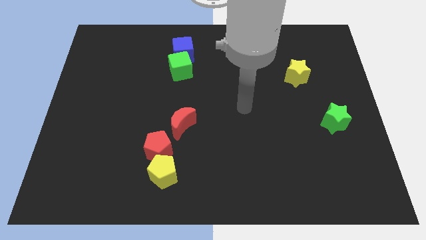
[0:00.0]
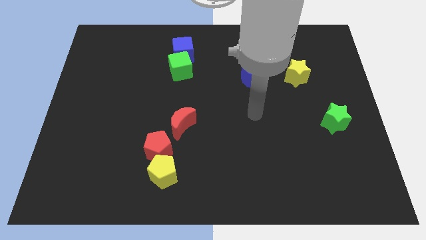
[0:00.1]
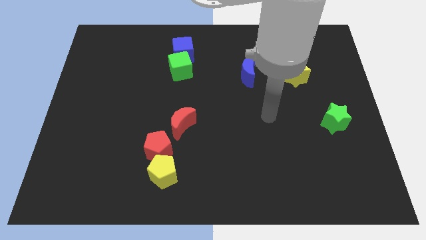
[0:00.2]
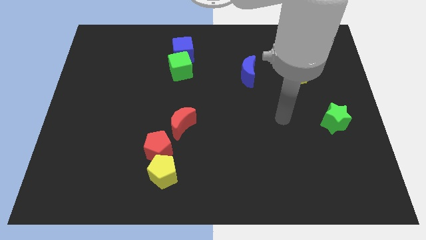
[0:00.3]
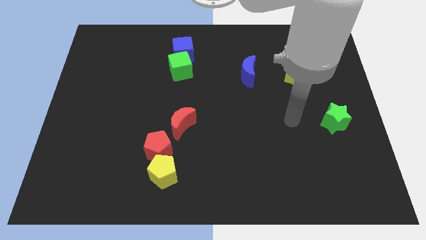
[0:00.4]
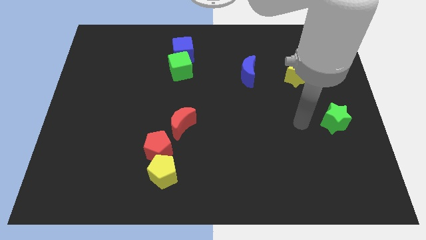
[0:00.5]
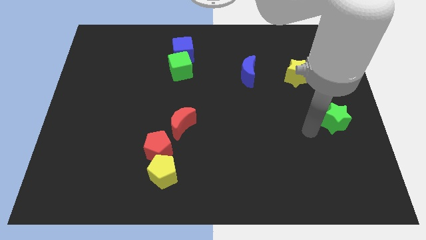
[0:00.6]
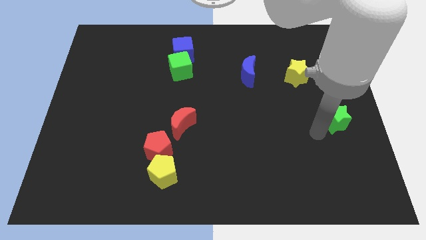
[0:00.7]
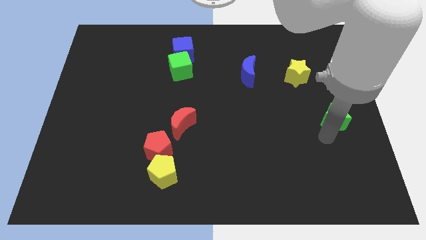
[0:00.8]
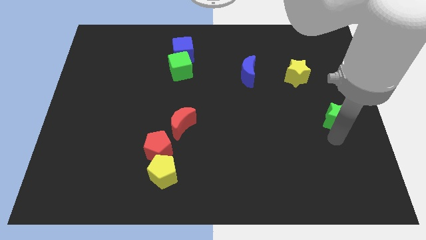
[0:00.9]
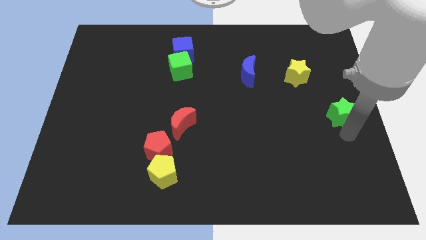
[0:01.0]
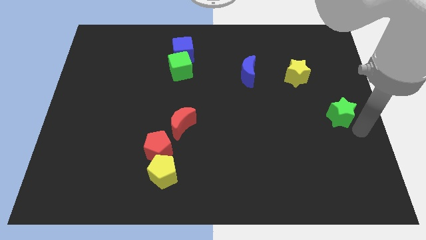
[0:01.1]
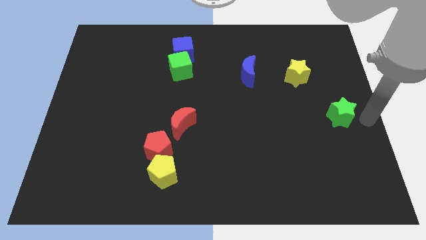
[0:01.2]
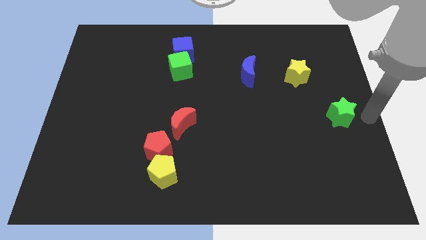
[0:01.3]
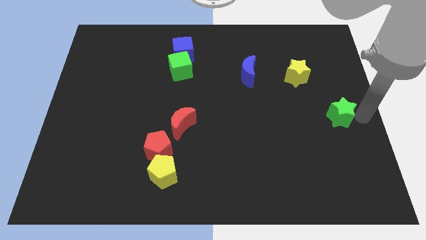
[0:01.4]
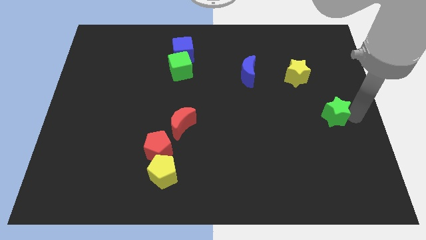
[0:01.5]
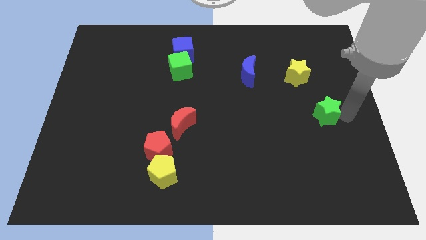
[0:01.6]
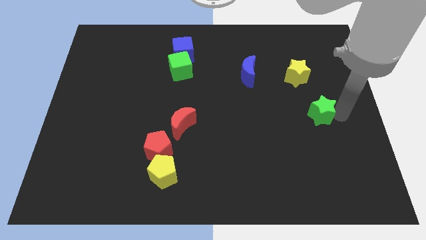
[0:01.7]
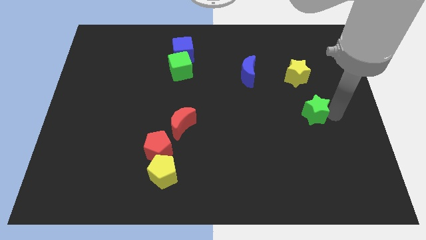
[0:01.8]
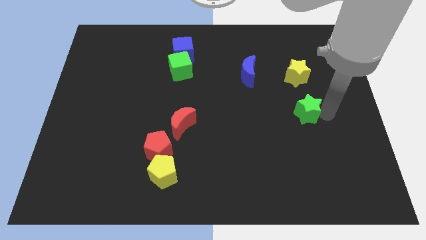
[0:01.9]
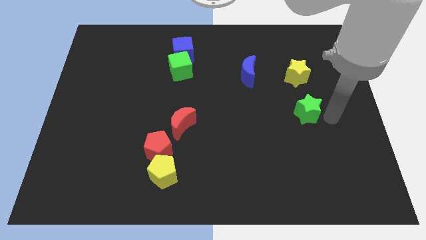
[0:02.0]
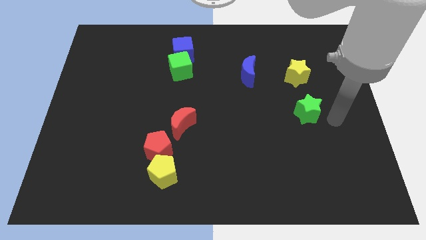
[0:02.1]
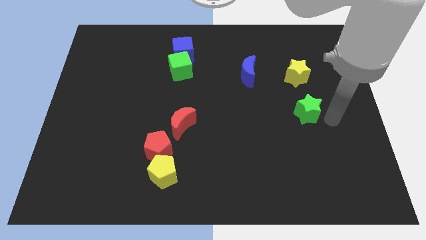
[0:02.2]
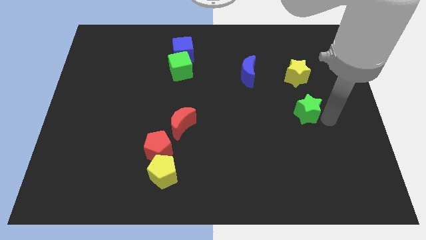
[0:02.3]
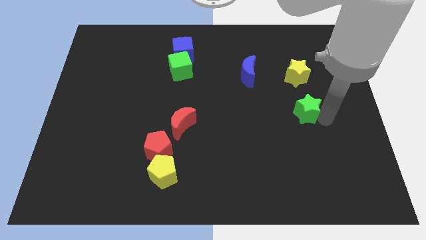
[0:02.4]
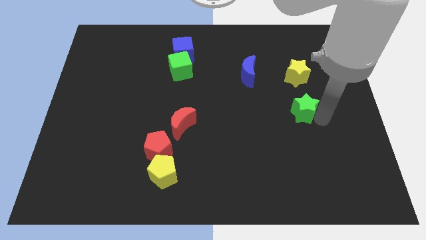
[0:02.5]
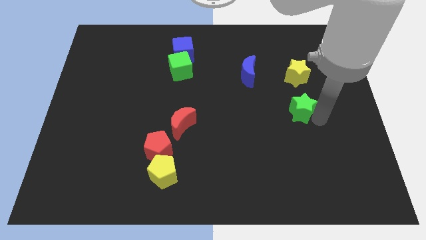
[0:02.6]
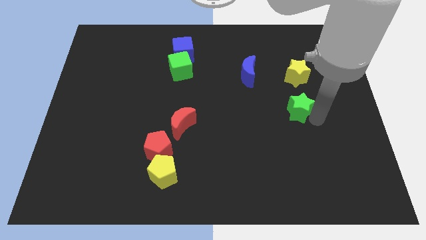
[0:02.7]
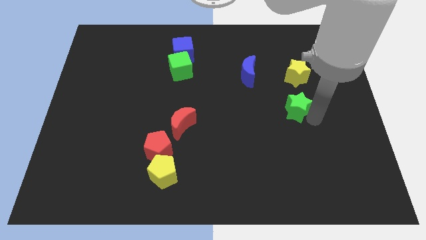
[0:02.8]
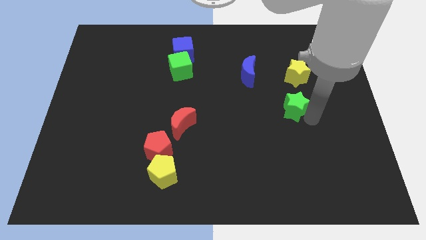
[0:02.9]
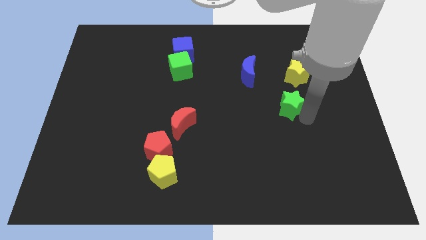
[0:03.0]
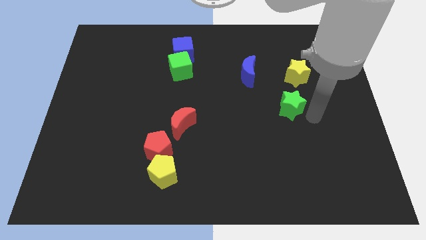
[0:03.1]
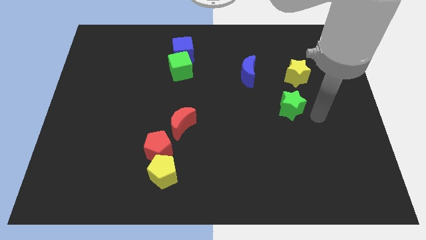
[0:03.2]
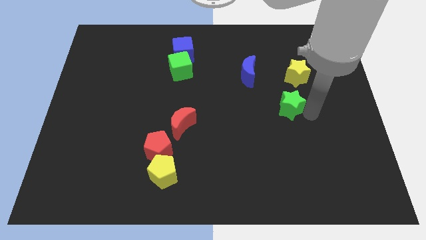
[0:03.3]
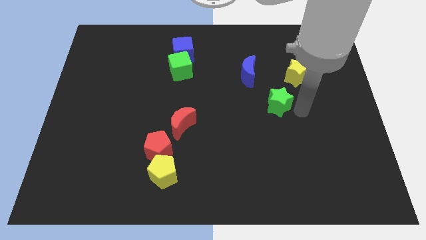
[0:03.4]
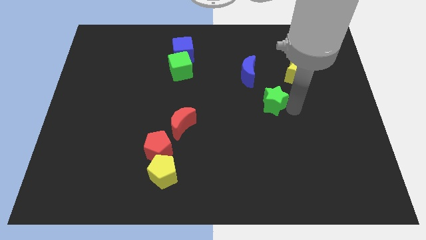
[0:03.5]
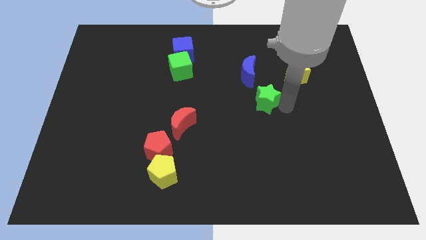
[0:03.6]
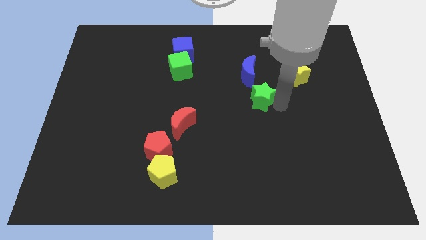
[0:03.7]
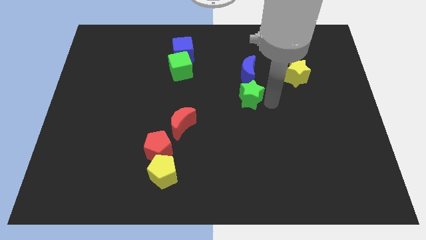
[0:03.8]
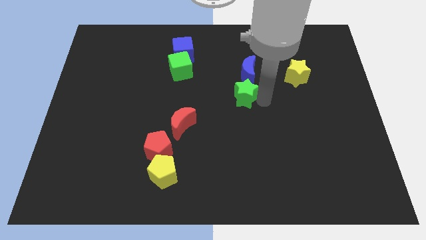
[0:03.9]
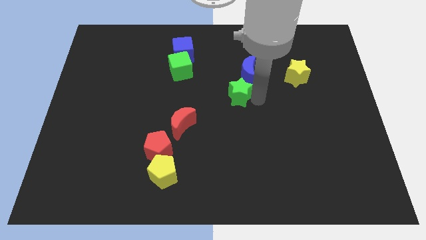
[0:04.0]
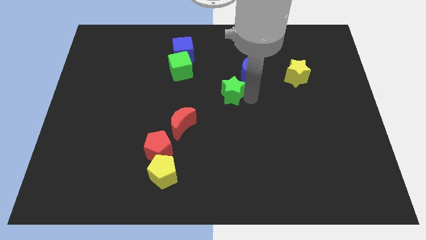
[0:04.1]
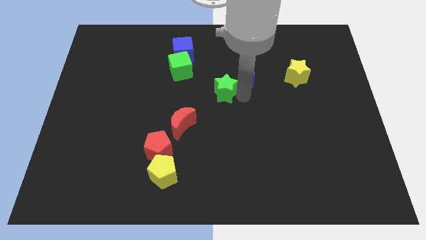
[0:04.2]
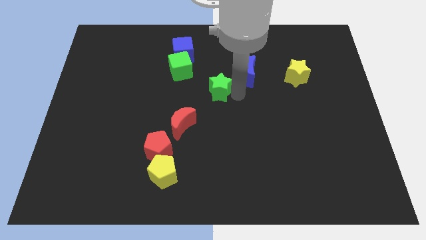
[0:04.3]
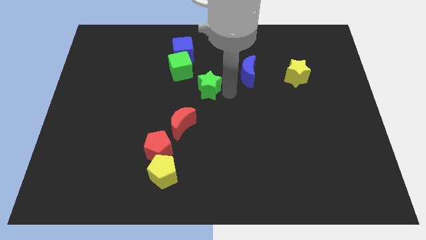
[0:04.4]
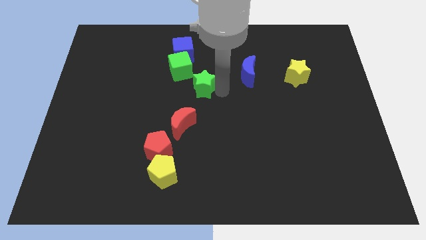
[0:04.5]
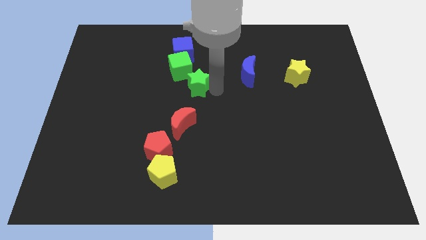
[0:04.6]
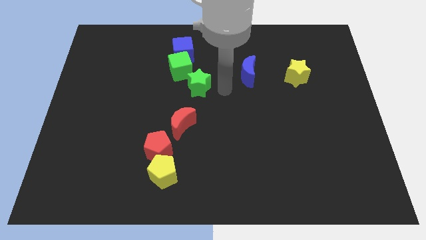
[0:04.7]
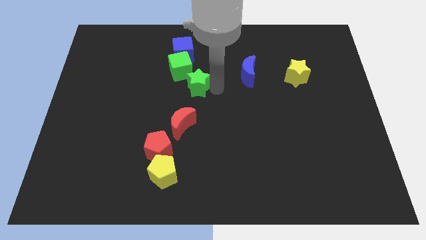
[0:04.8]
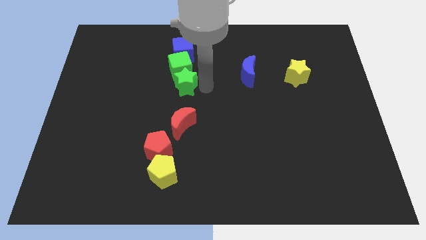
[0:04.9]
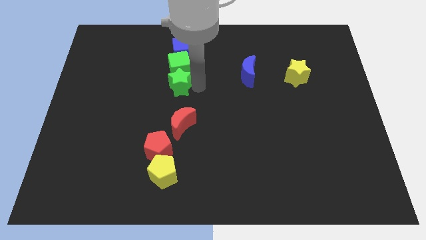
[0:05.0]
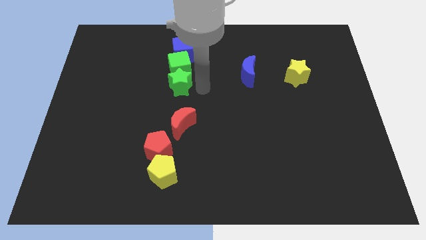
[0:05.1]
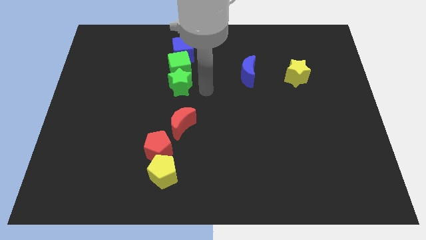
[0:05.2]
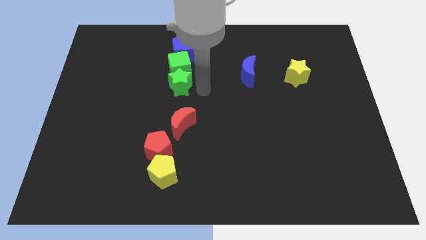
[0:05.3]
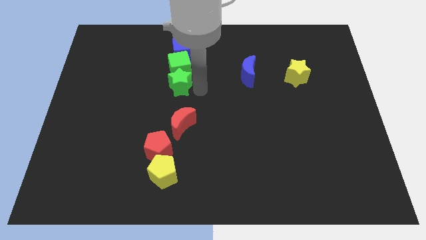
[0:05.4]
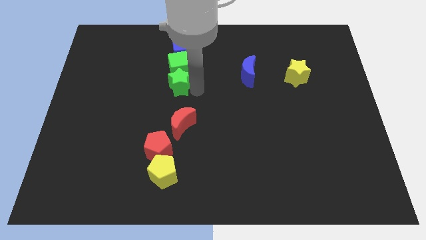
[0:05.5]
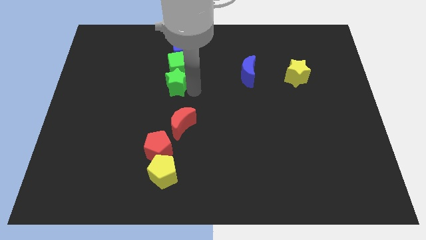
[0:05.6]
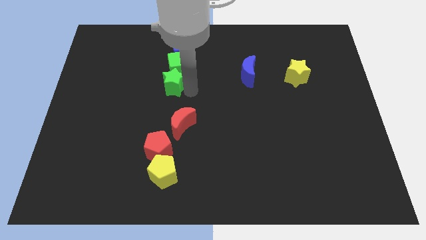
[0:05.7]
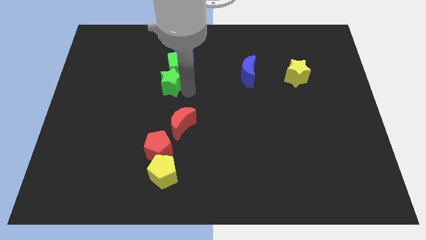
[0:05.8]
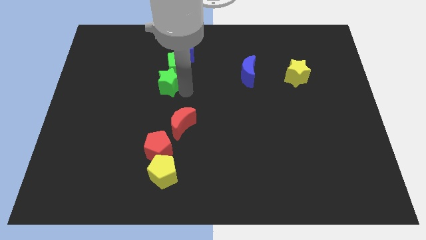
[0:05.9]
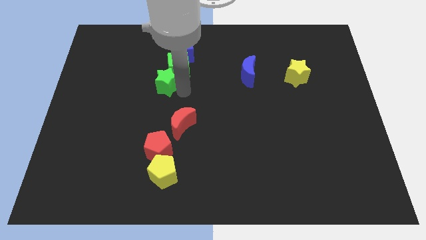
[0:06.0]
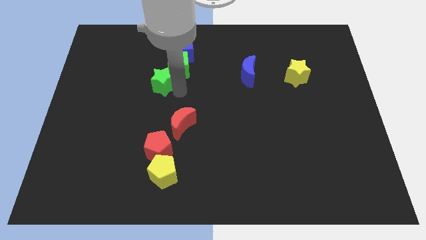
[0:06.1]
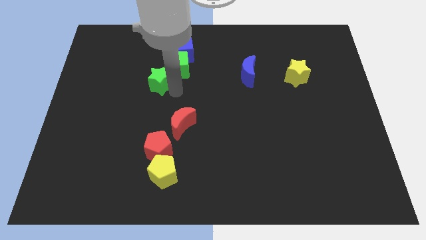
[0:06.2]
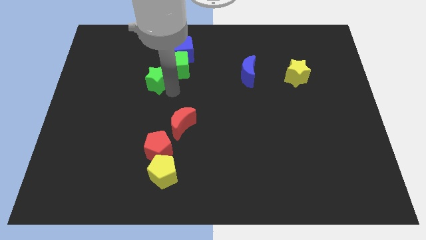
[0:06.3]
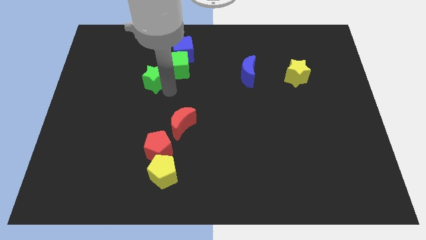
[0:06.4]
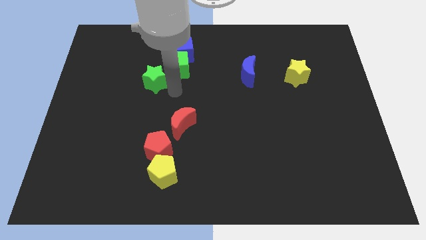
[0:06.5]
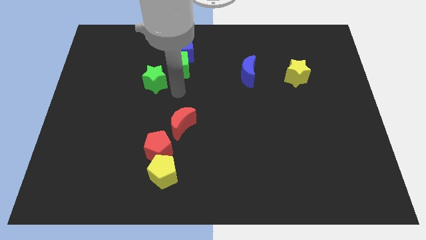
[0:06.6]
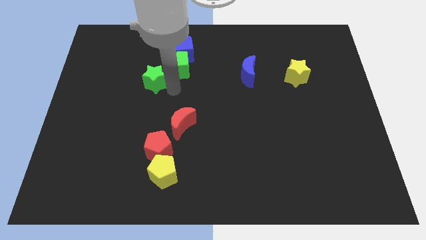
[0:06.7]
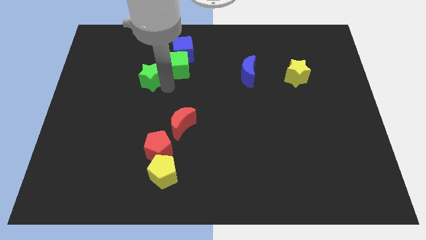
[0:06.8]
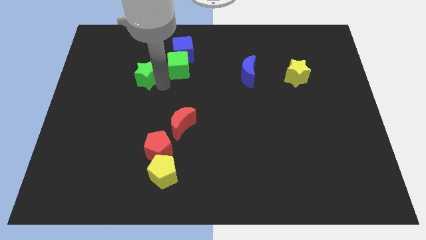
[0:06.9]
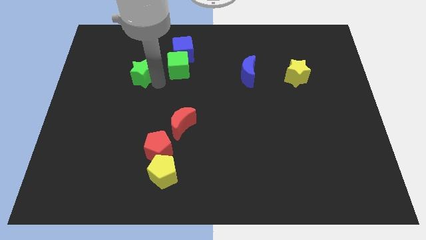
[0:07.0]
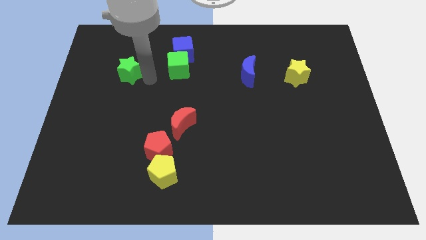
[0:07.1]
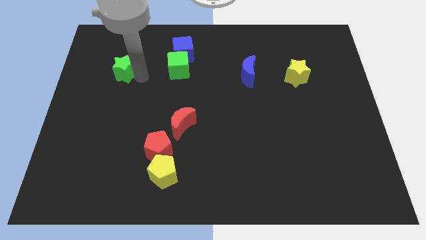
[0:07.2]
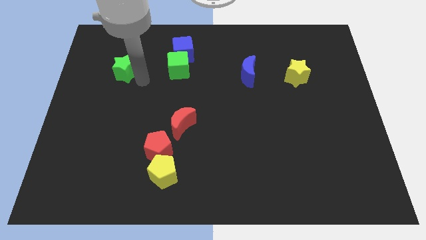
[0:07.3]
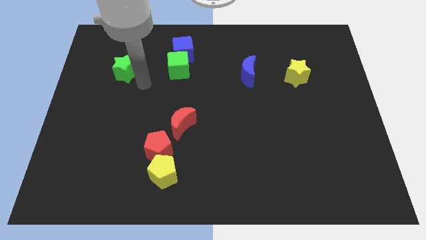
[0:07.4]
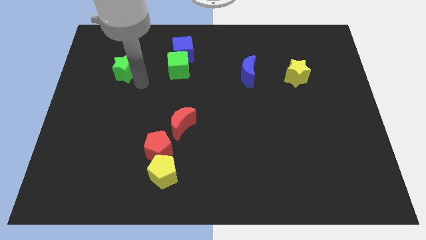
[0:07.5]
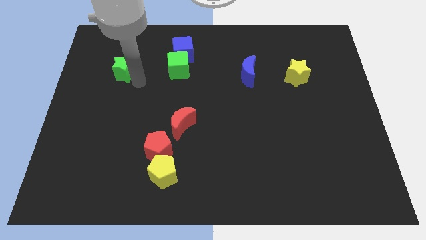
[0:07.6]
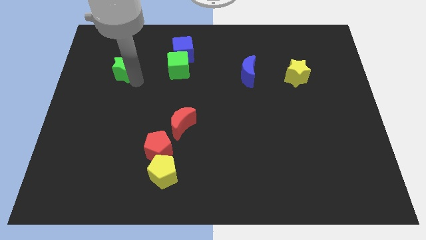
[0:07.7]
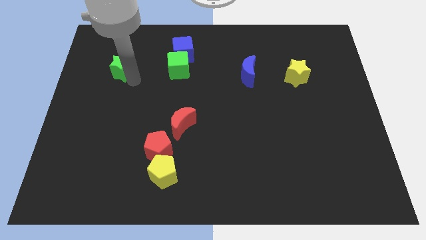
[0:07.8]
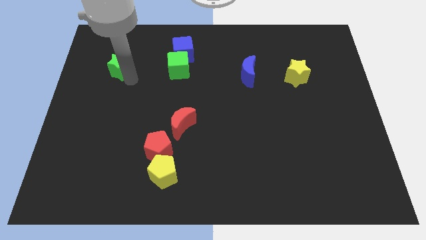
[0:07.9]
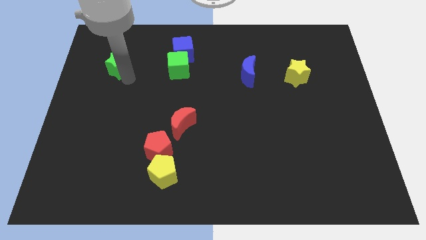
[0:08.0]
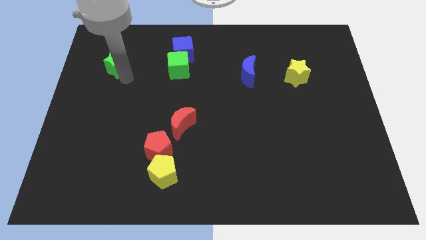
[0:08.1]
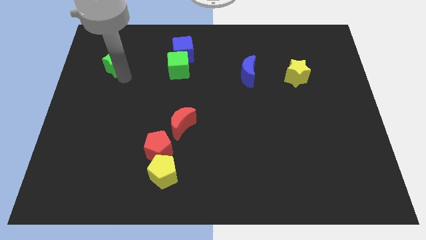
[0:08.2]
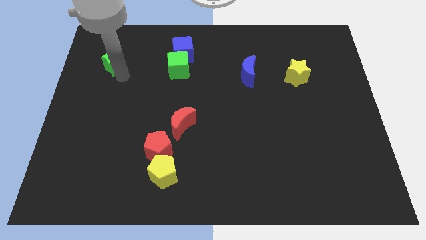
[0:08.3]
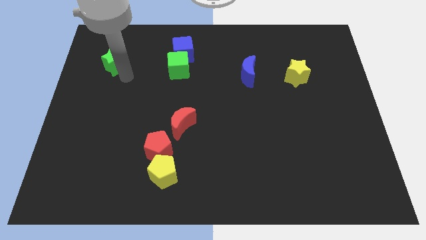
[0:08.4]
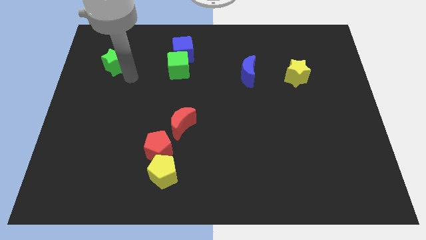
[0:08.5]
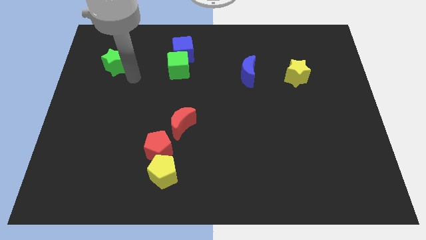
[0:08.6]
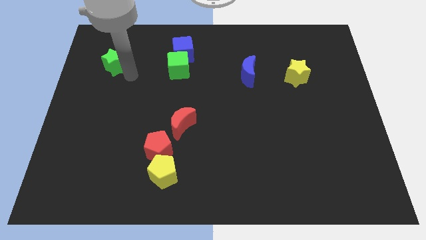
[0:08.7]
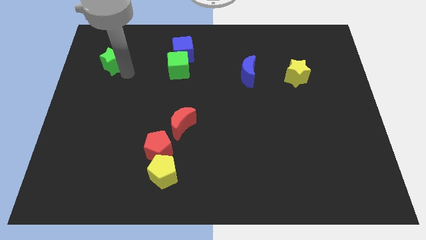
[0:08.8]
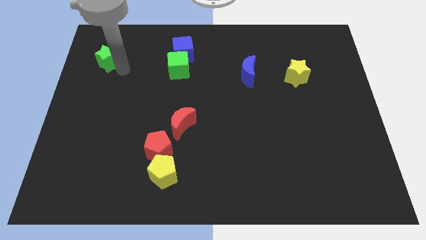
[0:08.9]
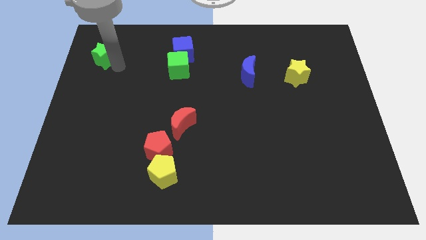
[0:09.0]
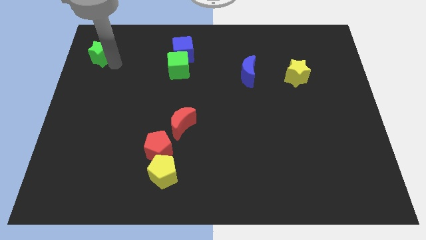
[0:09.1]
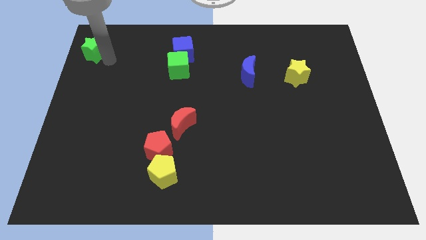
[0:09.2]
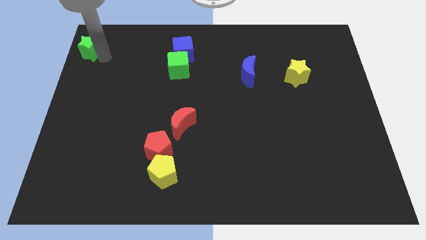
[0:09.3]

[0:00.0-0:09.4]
move the green star to the top left
